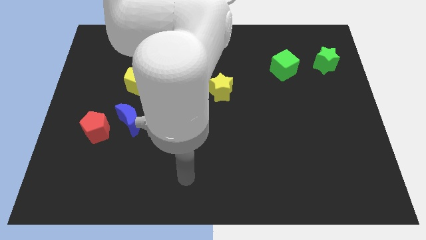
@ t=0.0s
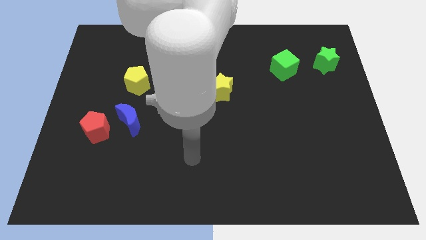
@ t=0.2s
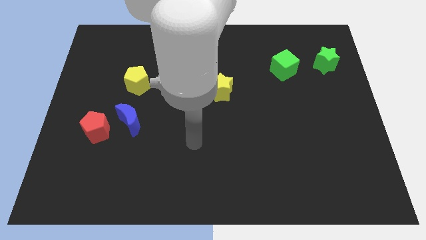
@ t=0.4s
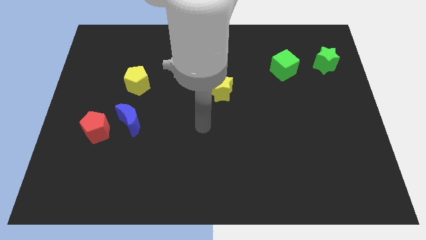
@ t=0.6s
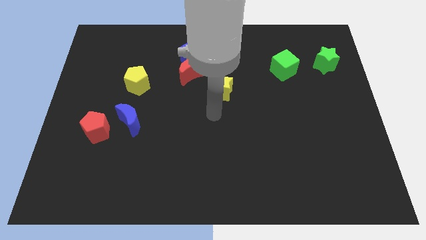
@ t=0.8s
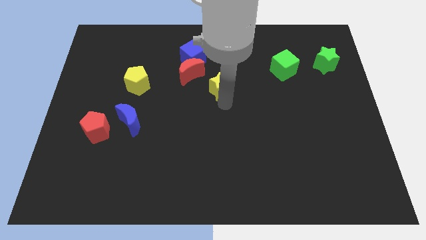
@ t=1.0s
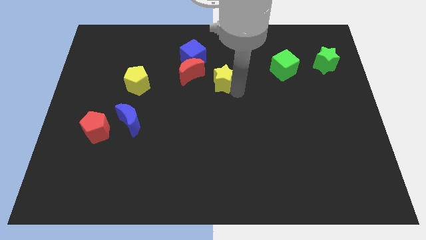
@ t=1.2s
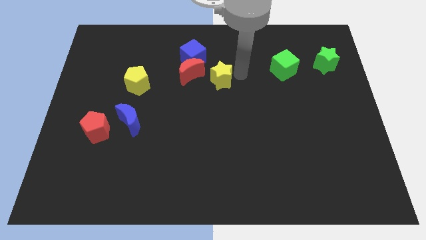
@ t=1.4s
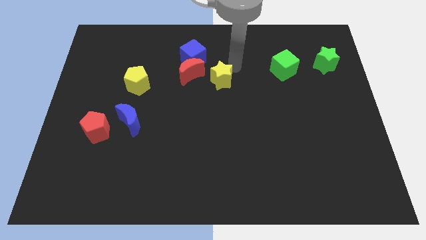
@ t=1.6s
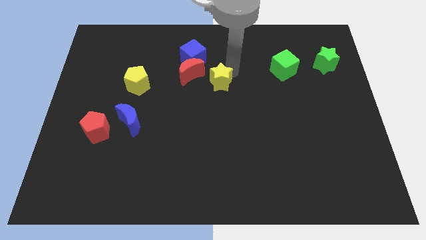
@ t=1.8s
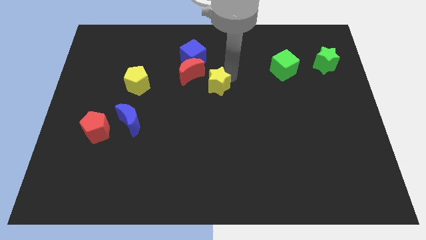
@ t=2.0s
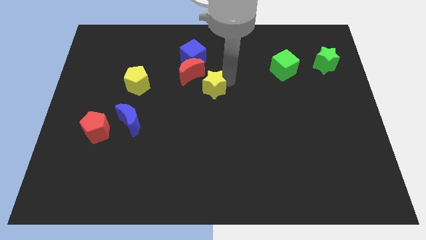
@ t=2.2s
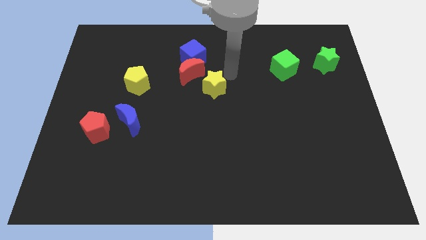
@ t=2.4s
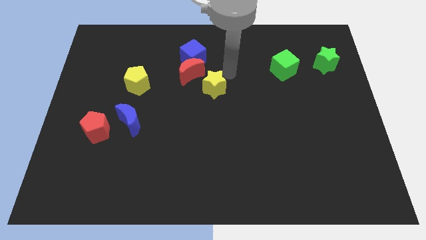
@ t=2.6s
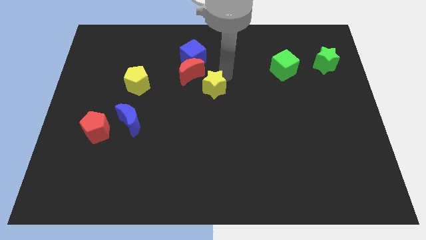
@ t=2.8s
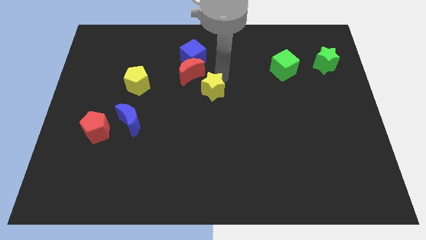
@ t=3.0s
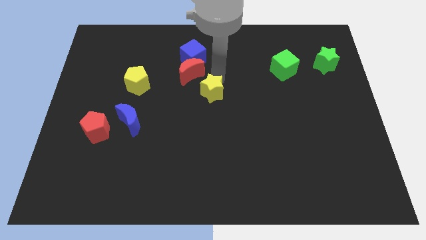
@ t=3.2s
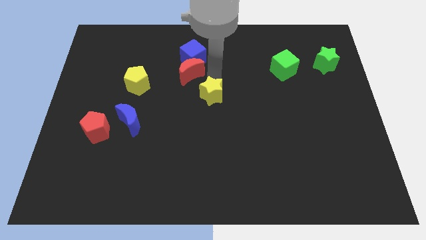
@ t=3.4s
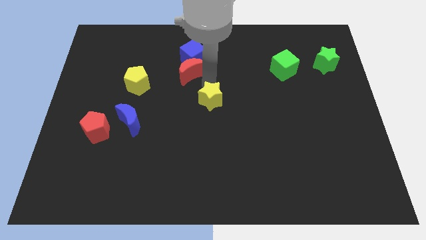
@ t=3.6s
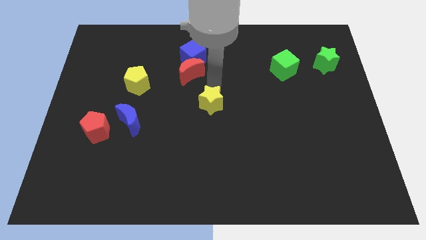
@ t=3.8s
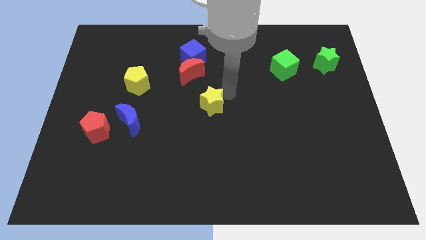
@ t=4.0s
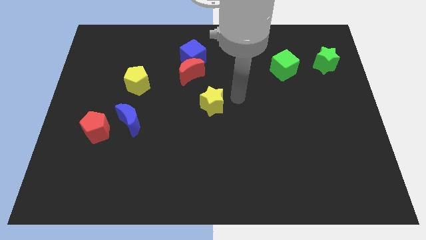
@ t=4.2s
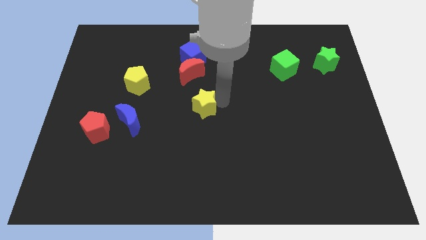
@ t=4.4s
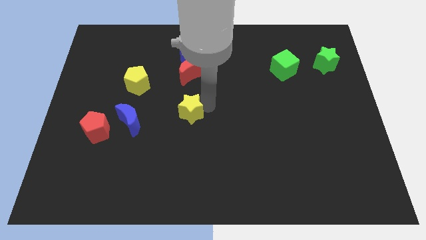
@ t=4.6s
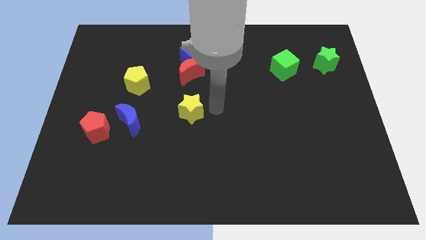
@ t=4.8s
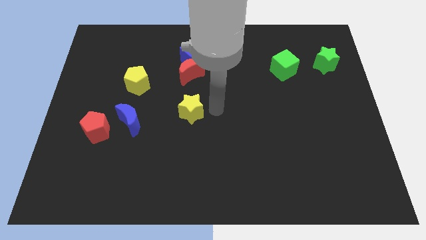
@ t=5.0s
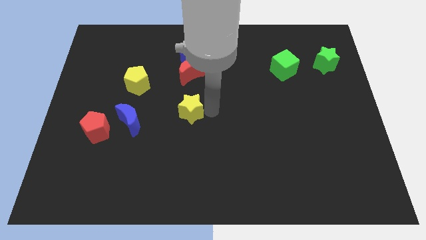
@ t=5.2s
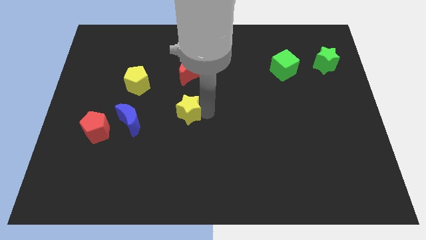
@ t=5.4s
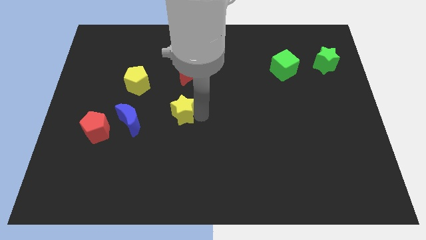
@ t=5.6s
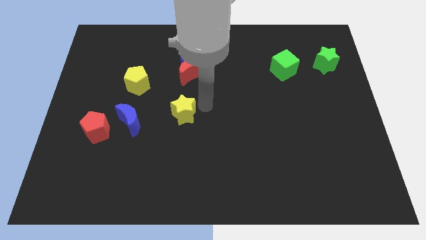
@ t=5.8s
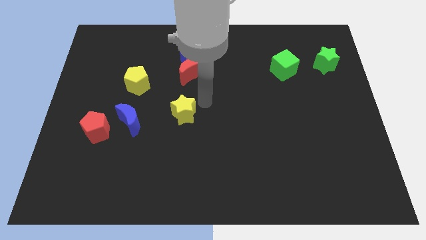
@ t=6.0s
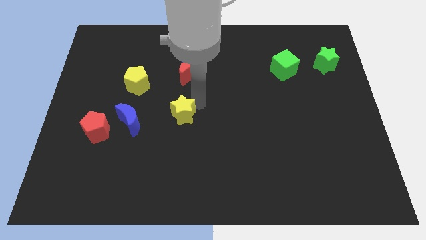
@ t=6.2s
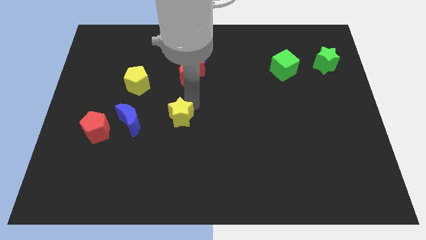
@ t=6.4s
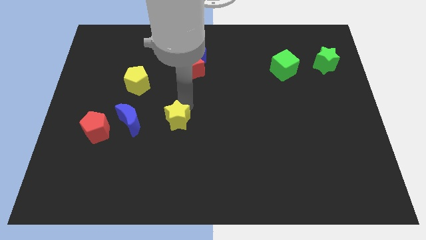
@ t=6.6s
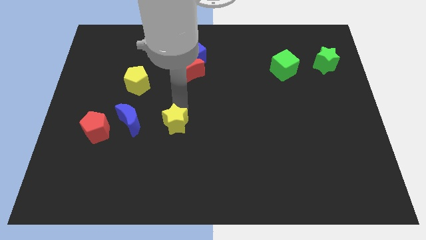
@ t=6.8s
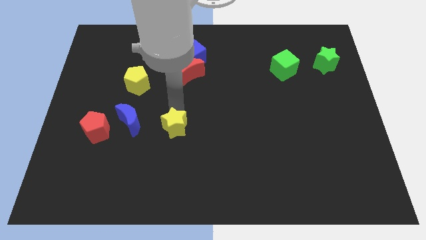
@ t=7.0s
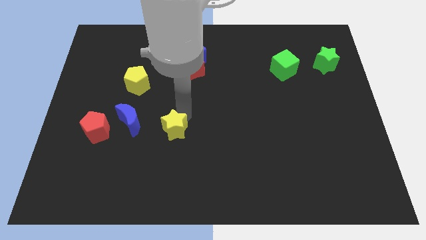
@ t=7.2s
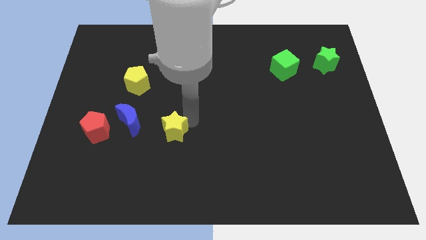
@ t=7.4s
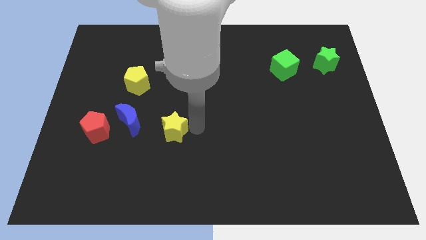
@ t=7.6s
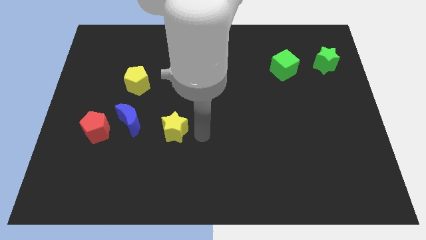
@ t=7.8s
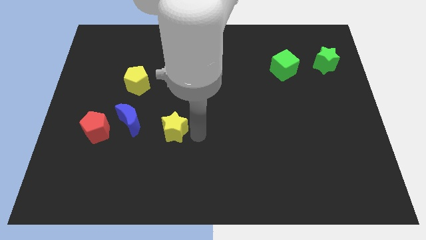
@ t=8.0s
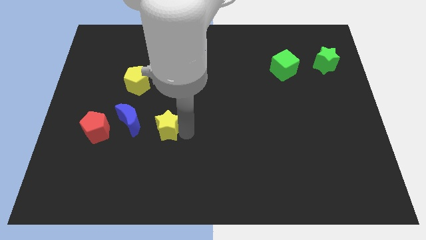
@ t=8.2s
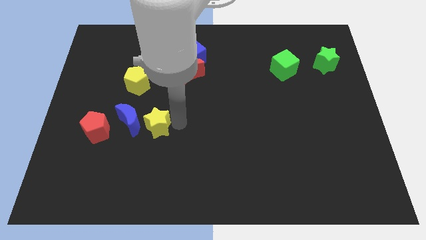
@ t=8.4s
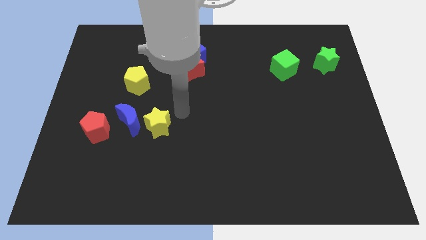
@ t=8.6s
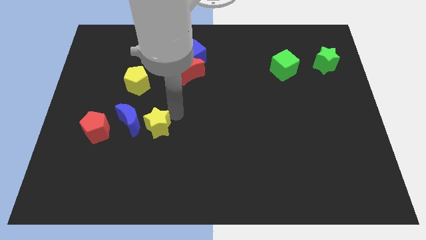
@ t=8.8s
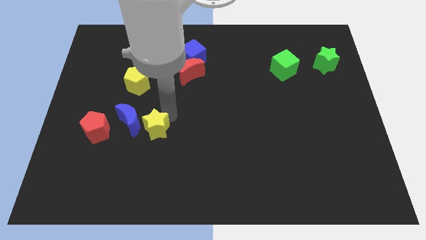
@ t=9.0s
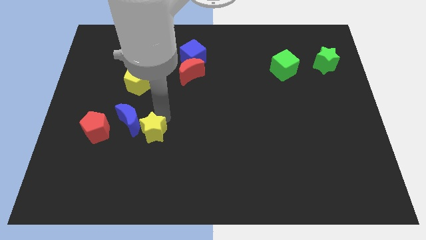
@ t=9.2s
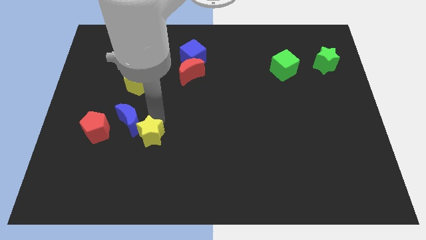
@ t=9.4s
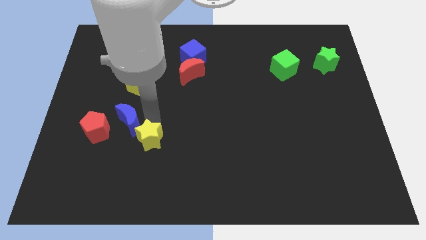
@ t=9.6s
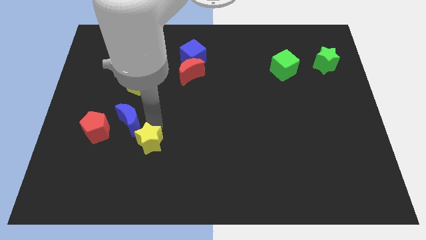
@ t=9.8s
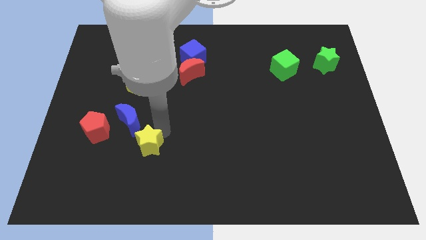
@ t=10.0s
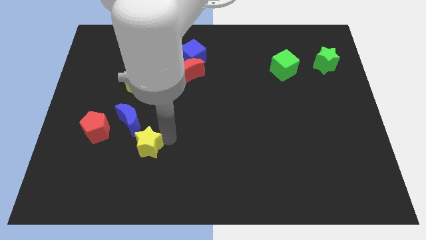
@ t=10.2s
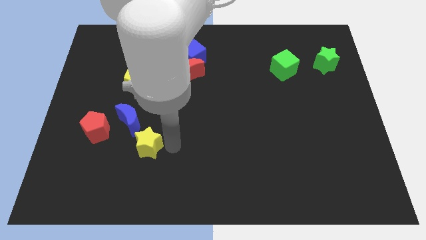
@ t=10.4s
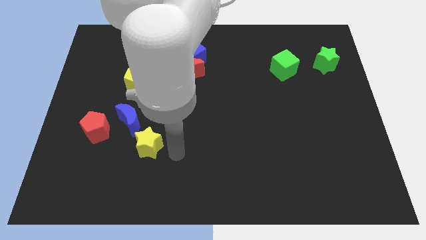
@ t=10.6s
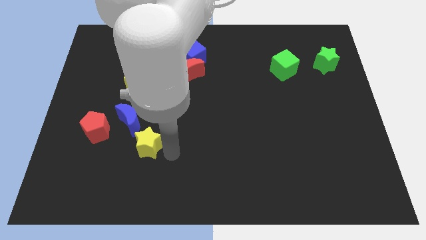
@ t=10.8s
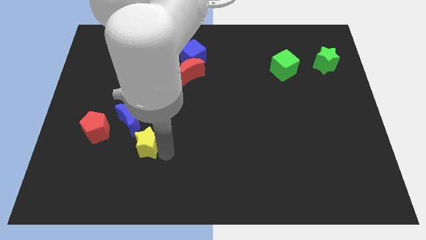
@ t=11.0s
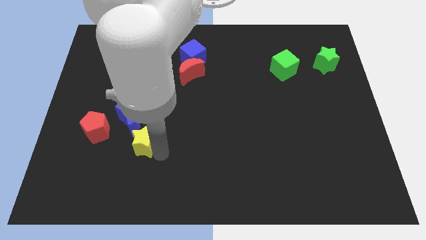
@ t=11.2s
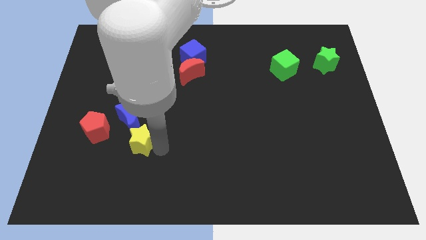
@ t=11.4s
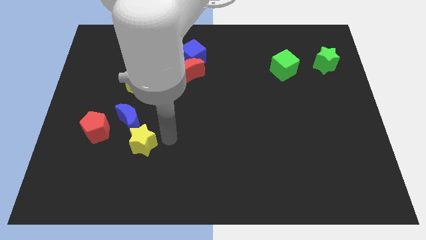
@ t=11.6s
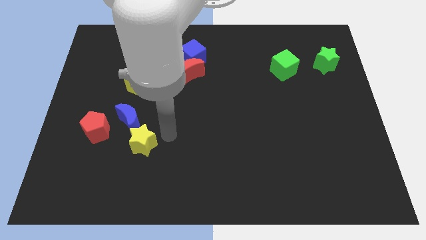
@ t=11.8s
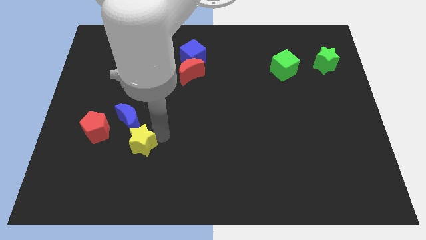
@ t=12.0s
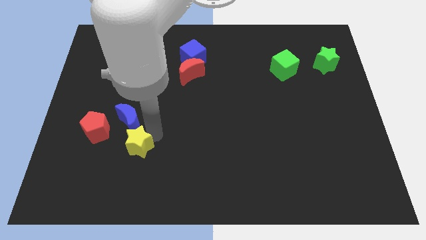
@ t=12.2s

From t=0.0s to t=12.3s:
move the yellow star to the bottom right side of the red pentagon
